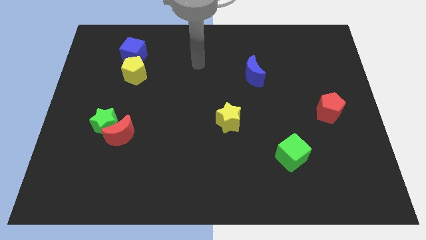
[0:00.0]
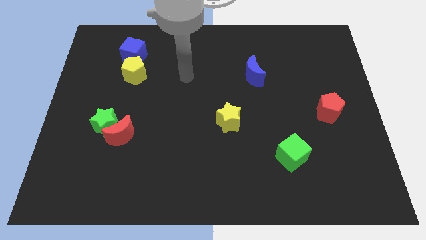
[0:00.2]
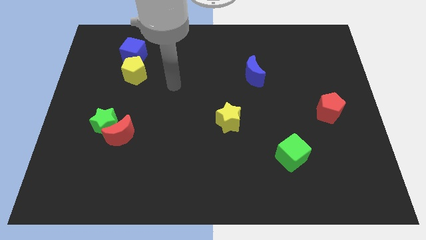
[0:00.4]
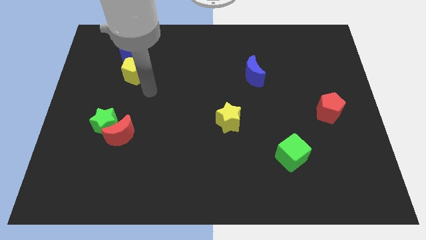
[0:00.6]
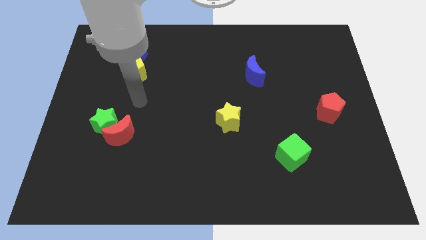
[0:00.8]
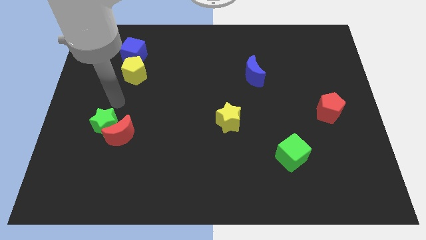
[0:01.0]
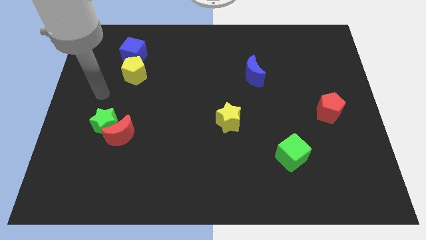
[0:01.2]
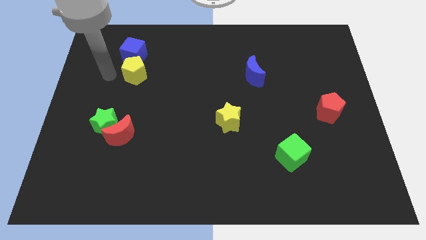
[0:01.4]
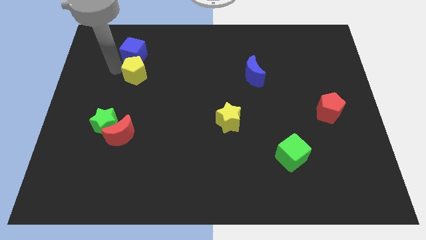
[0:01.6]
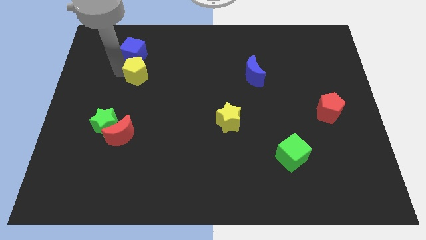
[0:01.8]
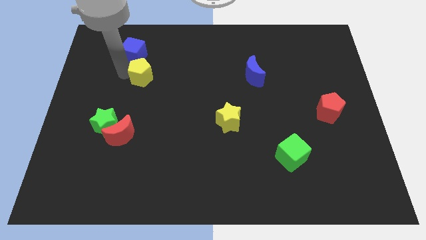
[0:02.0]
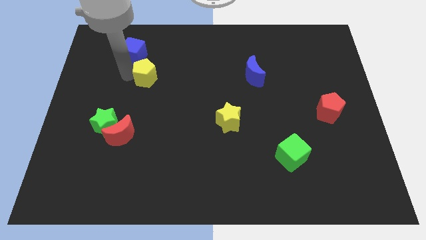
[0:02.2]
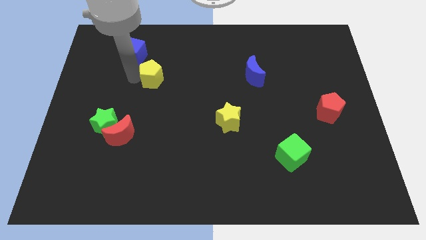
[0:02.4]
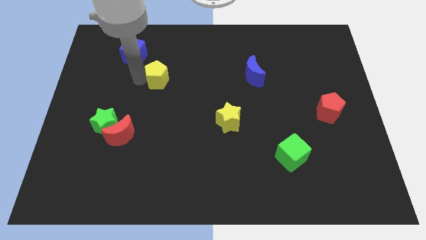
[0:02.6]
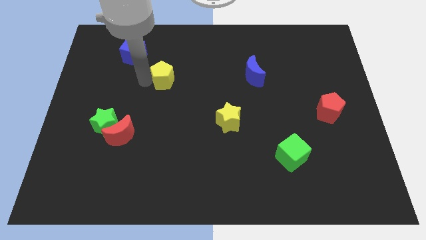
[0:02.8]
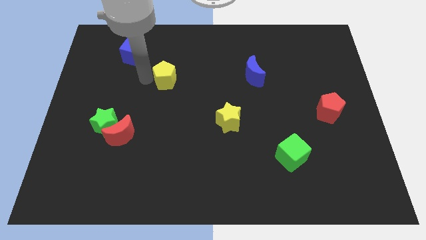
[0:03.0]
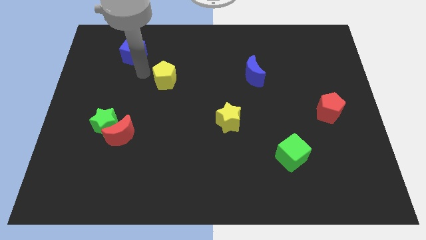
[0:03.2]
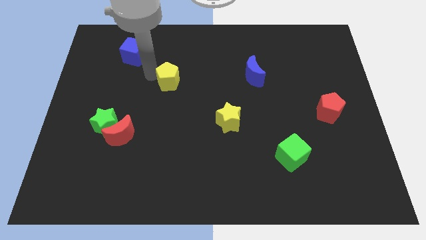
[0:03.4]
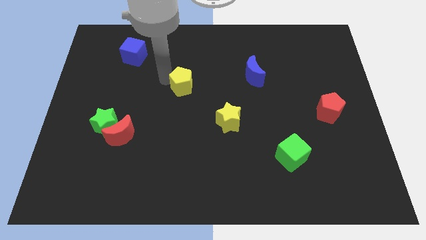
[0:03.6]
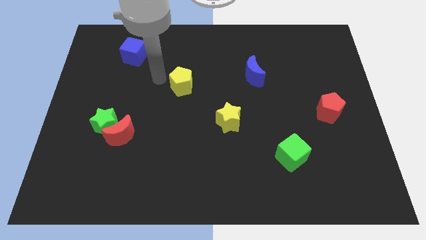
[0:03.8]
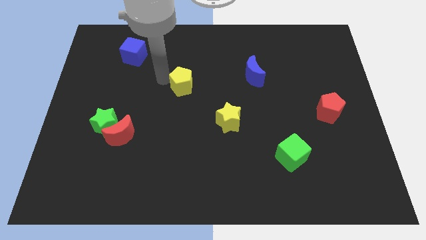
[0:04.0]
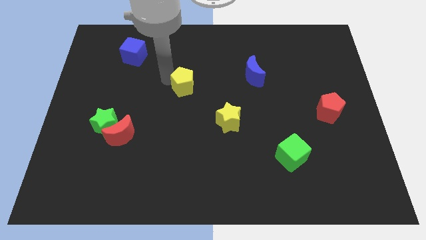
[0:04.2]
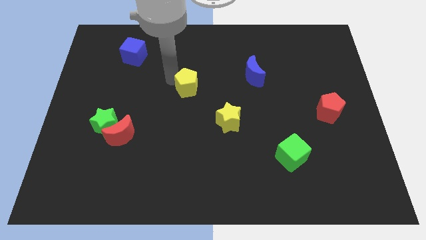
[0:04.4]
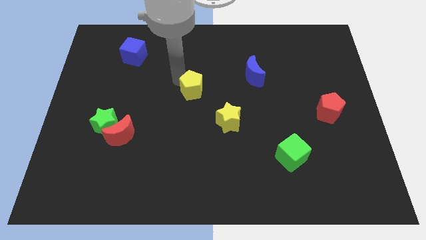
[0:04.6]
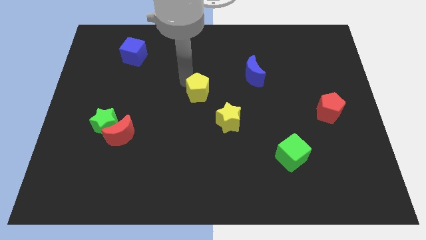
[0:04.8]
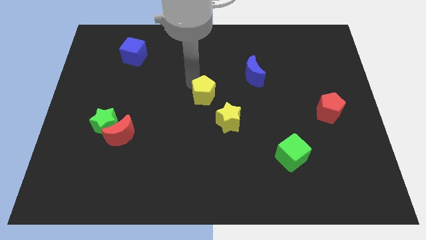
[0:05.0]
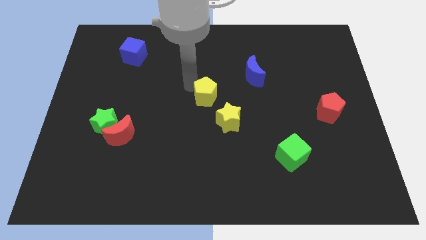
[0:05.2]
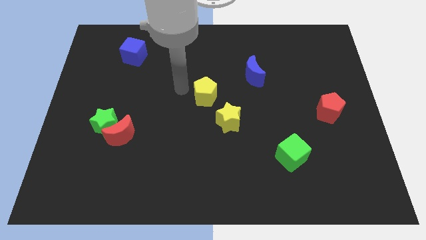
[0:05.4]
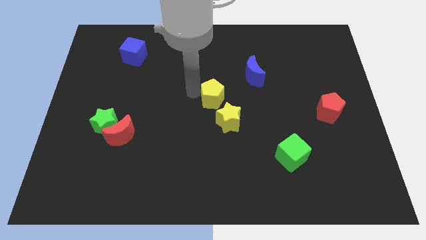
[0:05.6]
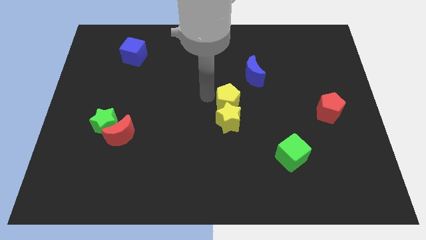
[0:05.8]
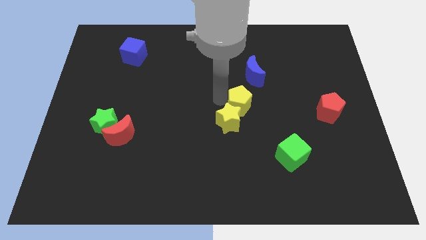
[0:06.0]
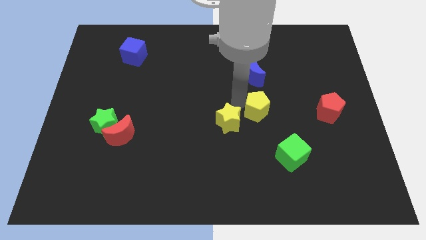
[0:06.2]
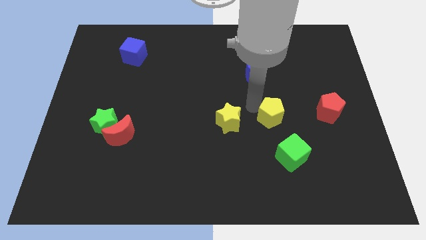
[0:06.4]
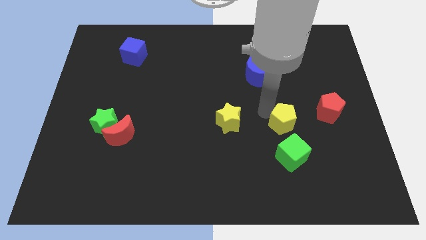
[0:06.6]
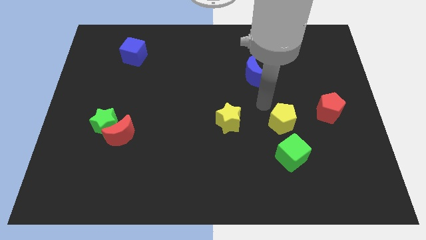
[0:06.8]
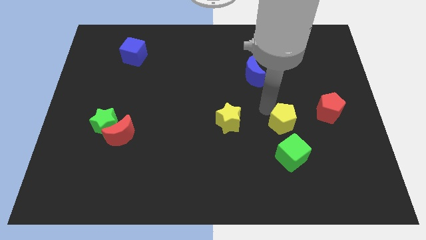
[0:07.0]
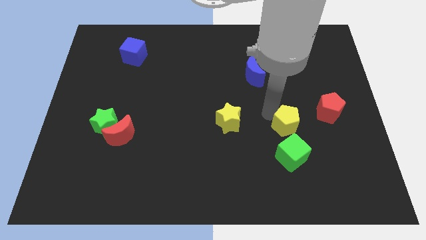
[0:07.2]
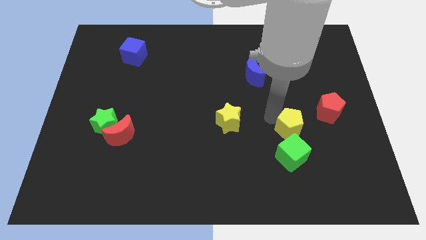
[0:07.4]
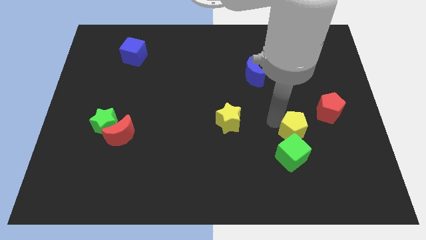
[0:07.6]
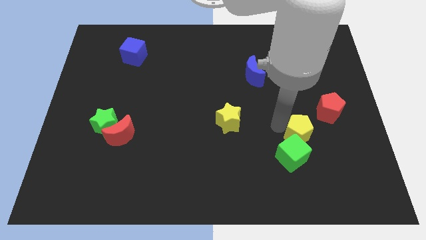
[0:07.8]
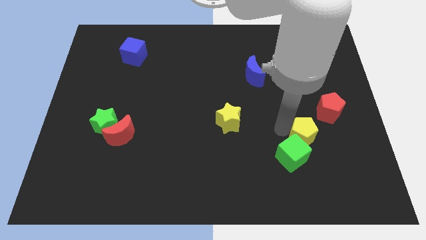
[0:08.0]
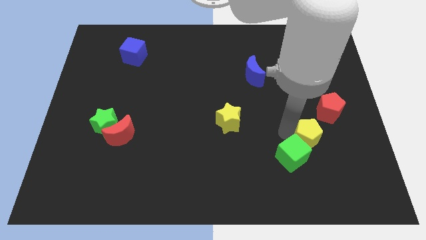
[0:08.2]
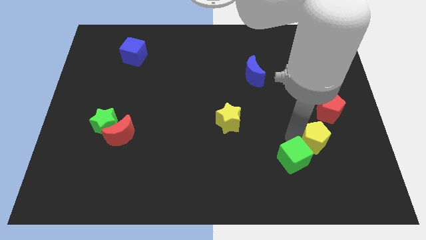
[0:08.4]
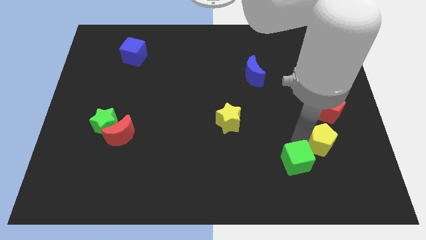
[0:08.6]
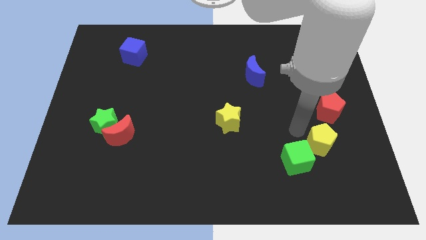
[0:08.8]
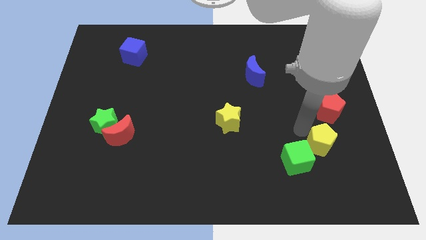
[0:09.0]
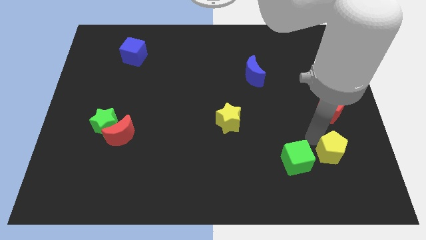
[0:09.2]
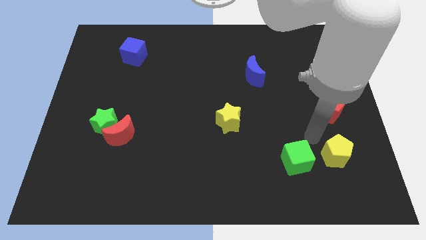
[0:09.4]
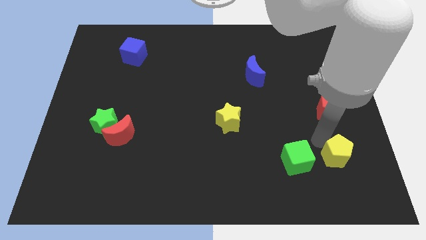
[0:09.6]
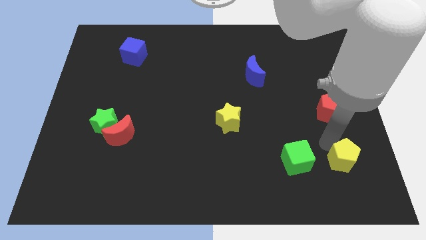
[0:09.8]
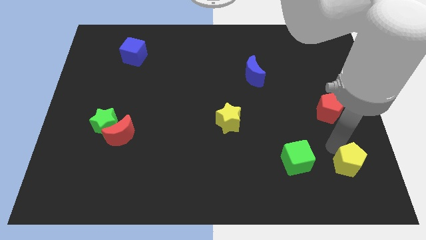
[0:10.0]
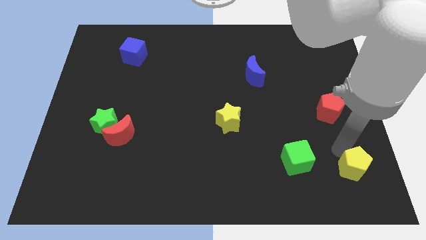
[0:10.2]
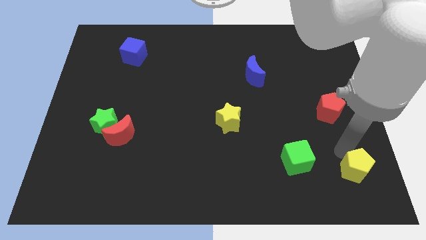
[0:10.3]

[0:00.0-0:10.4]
push the yellow pentagon to the bottom right corner

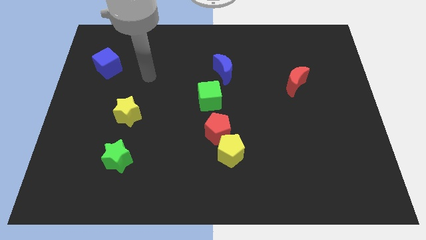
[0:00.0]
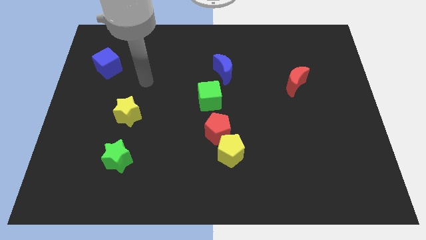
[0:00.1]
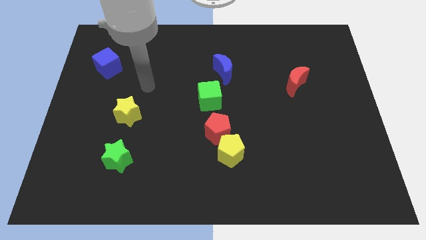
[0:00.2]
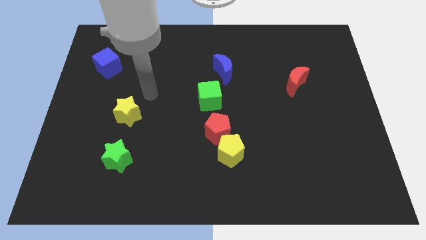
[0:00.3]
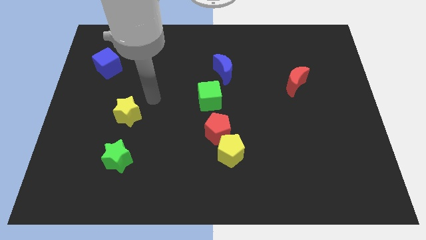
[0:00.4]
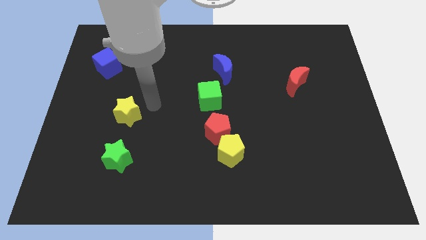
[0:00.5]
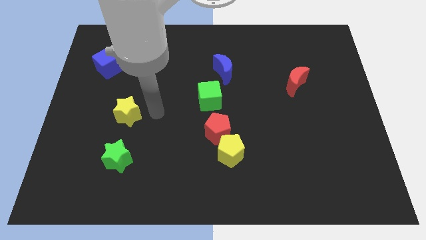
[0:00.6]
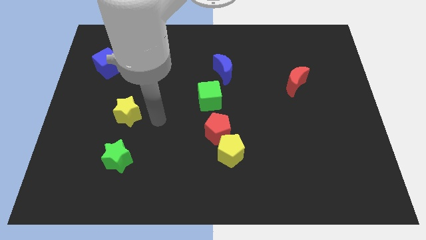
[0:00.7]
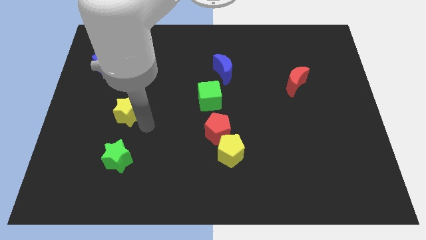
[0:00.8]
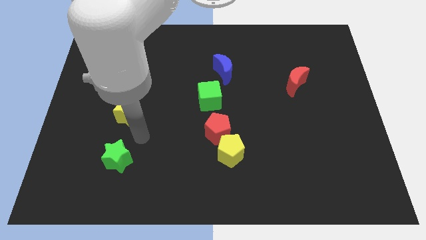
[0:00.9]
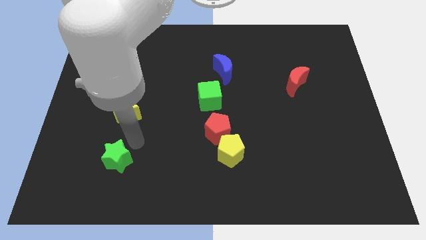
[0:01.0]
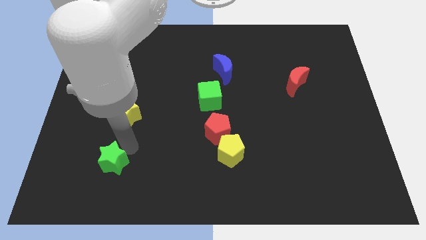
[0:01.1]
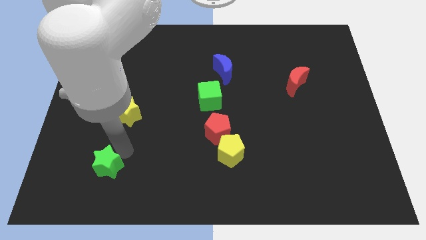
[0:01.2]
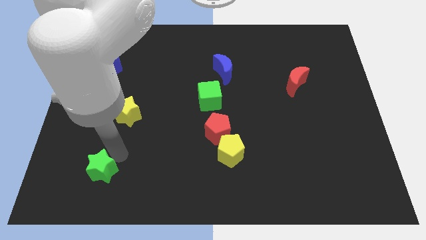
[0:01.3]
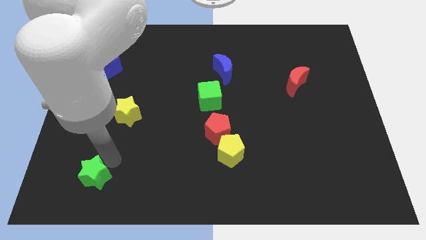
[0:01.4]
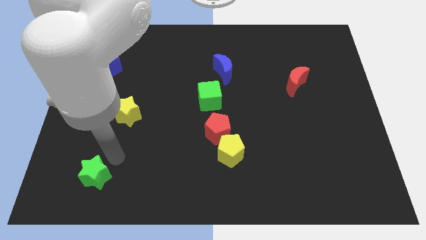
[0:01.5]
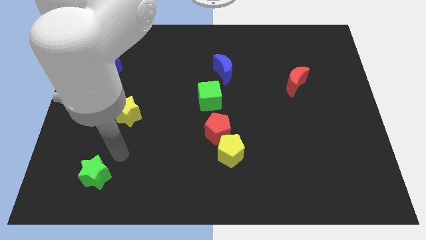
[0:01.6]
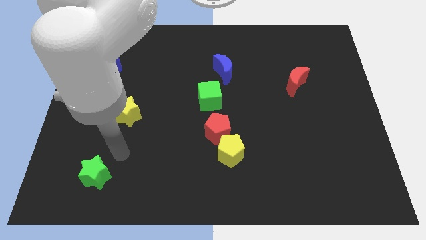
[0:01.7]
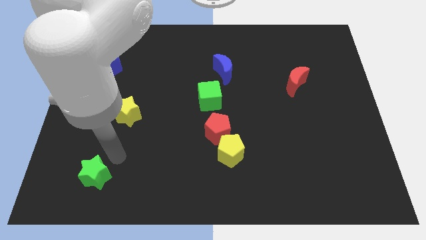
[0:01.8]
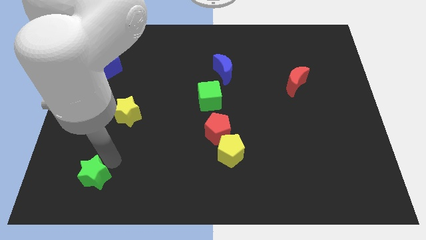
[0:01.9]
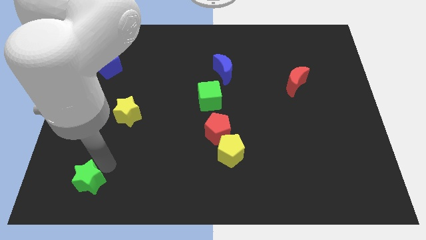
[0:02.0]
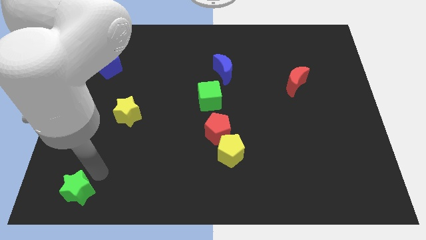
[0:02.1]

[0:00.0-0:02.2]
put the green star to the bottom left of the board

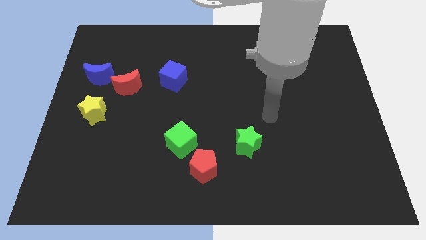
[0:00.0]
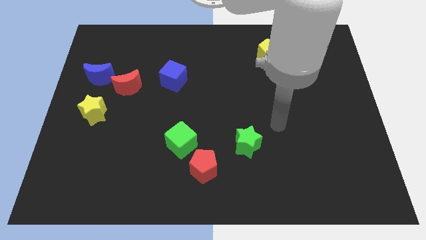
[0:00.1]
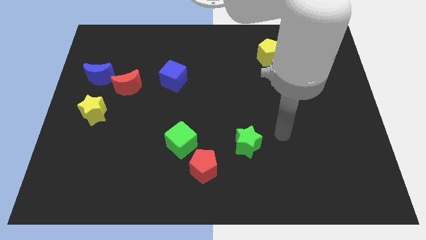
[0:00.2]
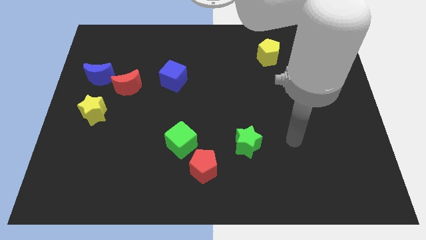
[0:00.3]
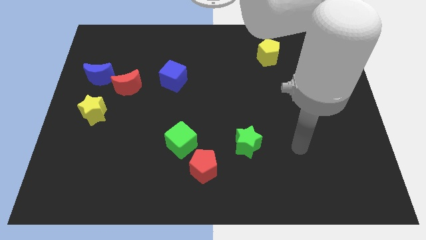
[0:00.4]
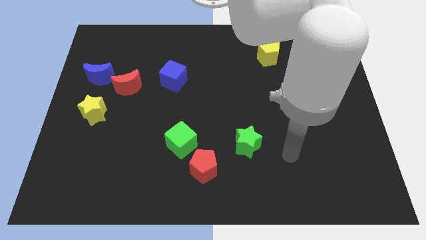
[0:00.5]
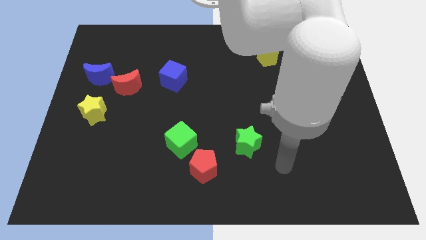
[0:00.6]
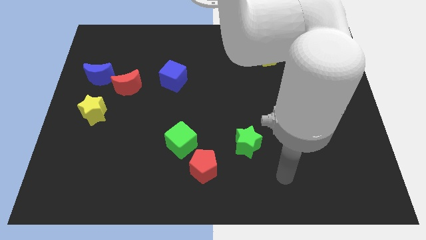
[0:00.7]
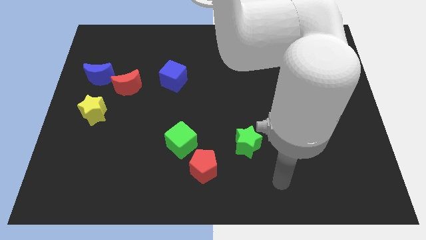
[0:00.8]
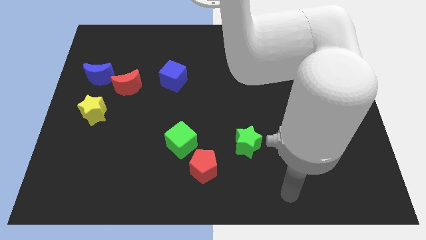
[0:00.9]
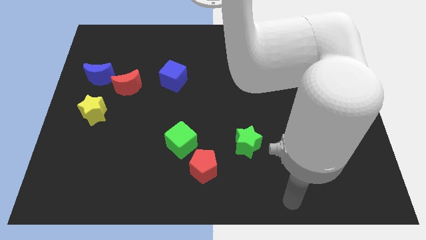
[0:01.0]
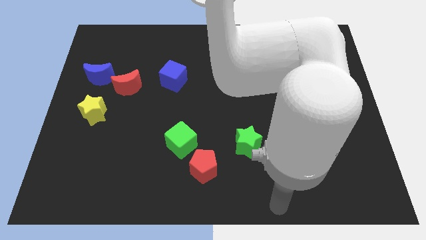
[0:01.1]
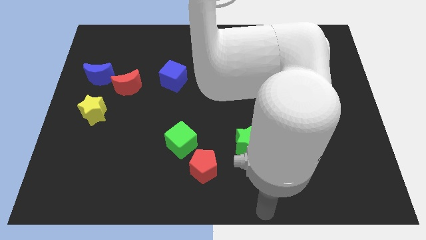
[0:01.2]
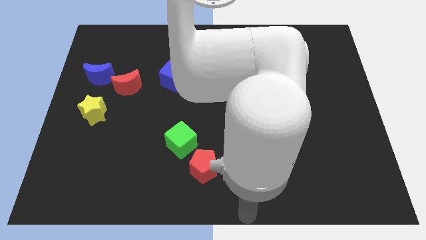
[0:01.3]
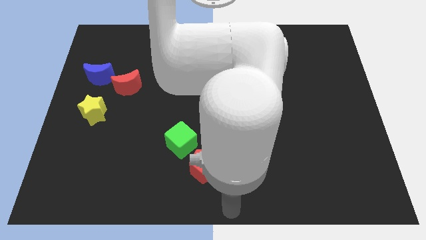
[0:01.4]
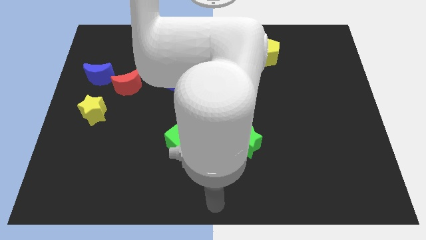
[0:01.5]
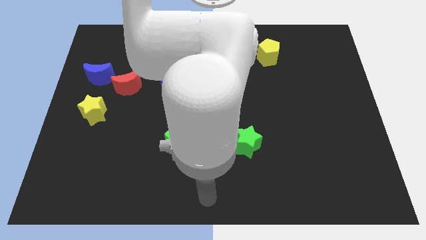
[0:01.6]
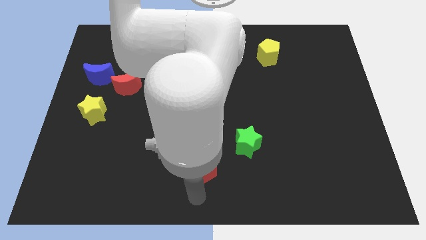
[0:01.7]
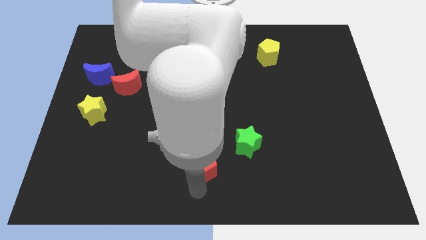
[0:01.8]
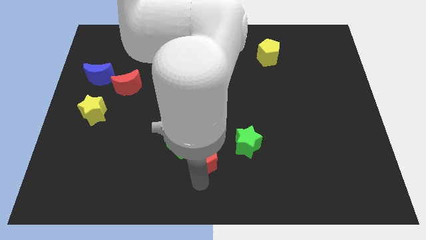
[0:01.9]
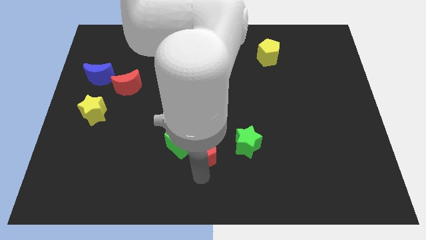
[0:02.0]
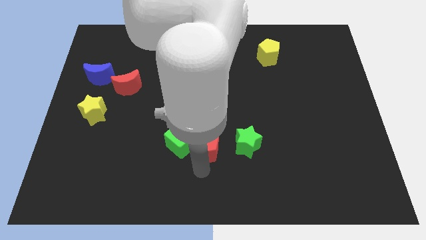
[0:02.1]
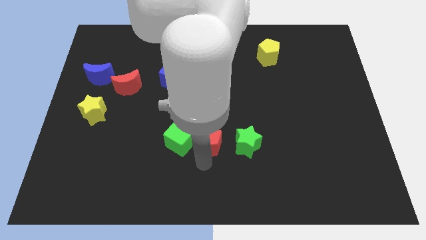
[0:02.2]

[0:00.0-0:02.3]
put the red pentagon to the center of the board
